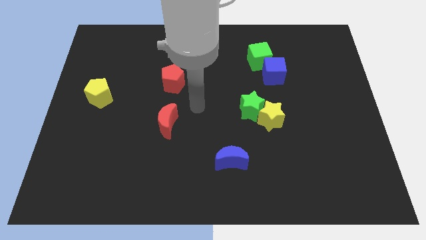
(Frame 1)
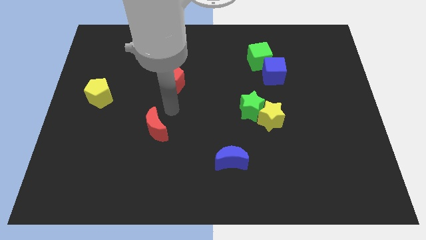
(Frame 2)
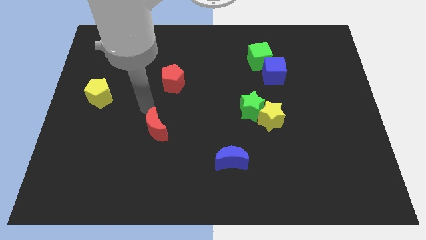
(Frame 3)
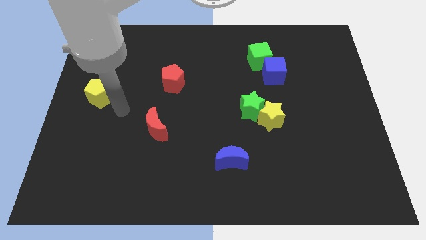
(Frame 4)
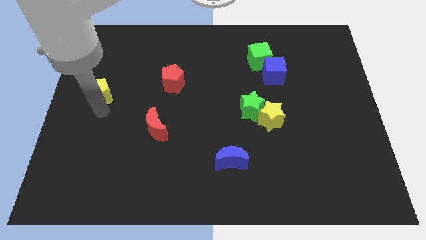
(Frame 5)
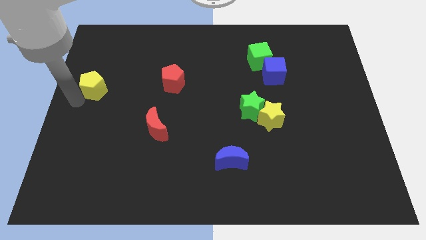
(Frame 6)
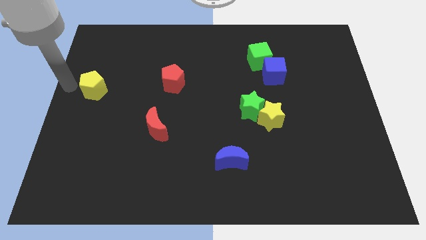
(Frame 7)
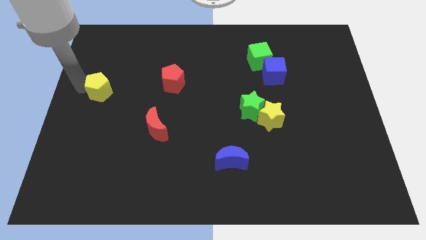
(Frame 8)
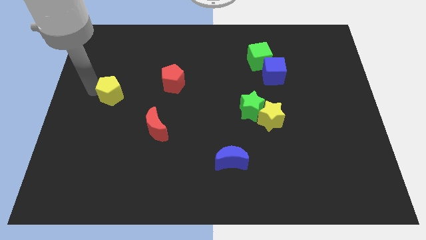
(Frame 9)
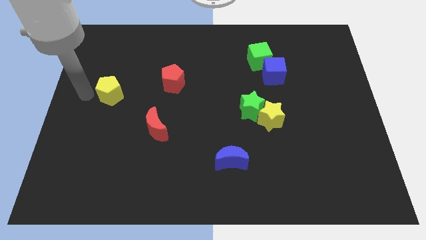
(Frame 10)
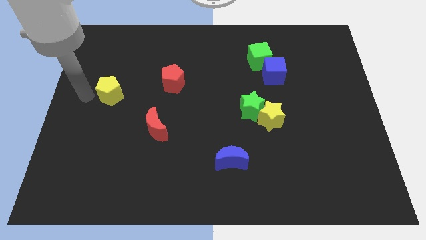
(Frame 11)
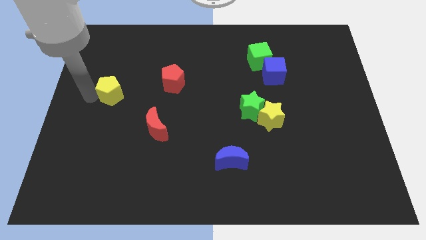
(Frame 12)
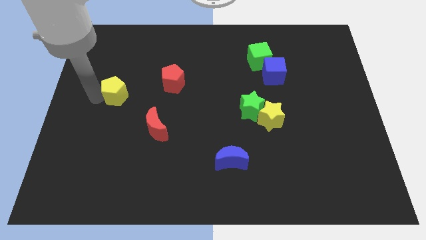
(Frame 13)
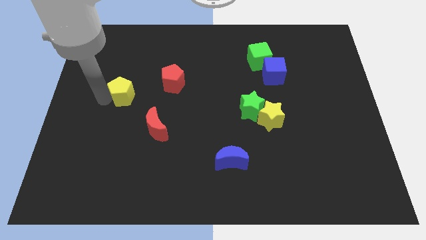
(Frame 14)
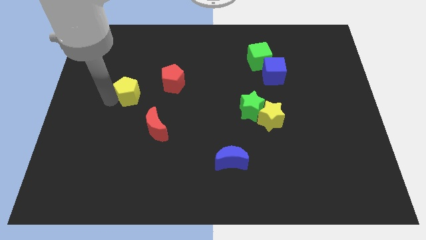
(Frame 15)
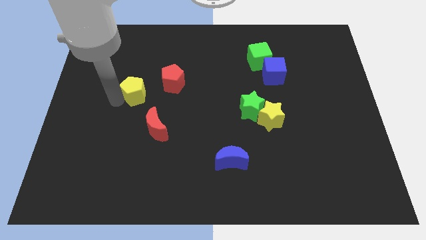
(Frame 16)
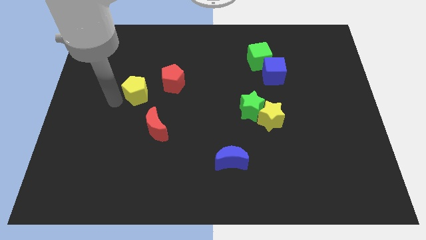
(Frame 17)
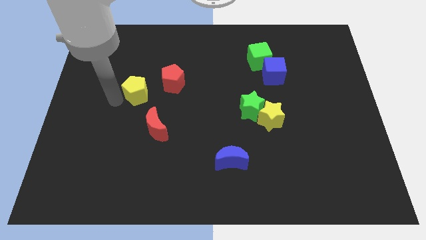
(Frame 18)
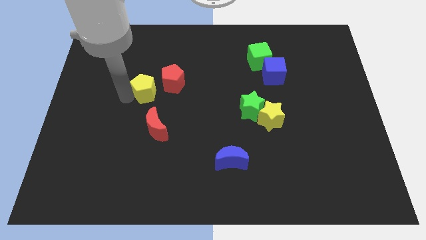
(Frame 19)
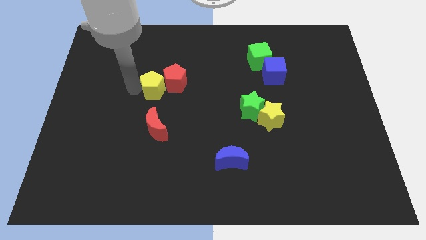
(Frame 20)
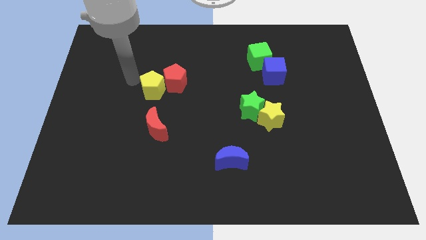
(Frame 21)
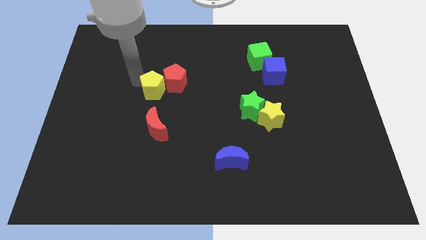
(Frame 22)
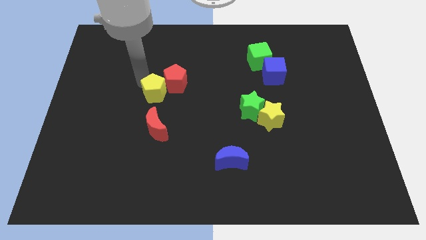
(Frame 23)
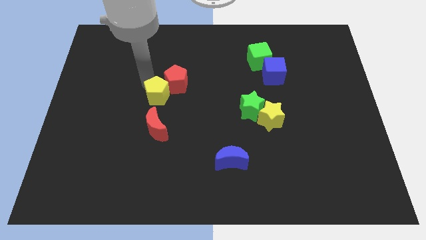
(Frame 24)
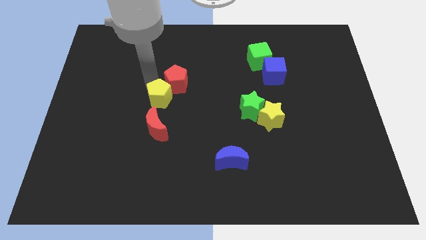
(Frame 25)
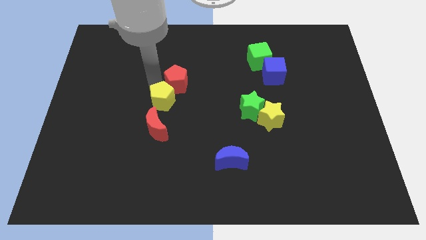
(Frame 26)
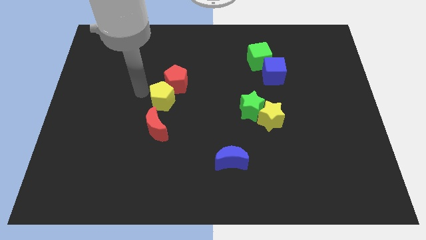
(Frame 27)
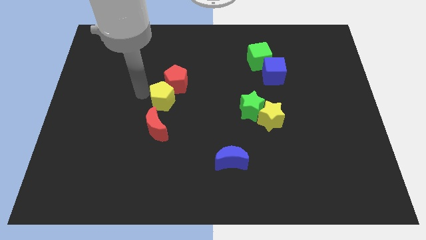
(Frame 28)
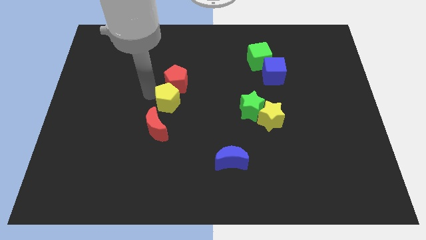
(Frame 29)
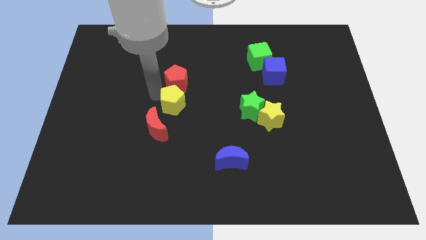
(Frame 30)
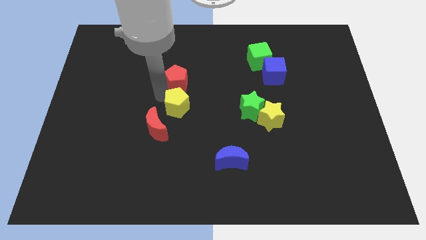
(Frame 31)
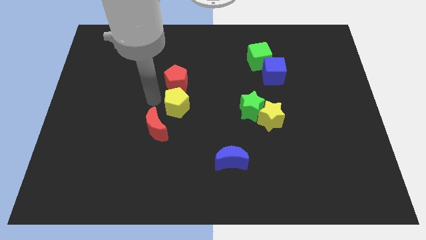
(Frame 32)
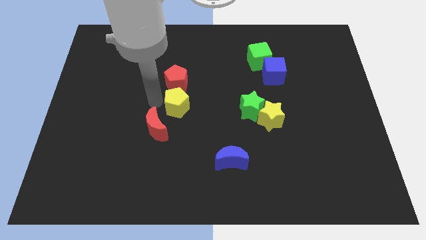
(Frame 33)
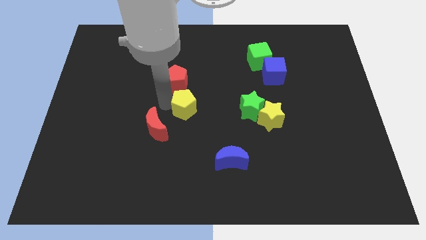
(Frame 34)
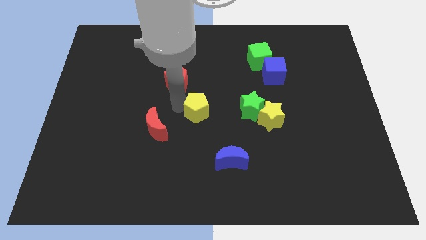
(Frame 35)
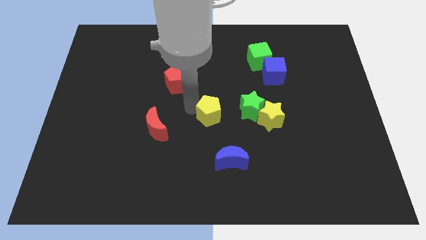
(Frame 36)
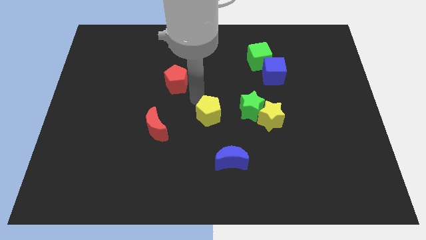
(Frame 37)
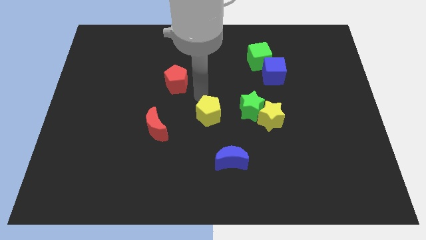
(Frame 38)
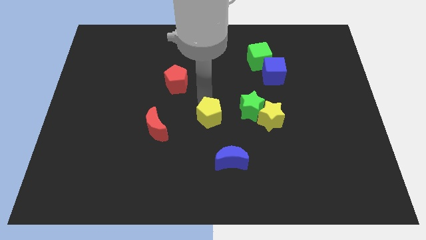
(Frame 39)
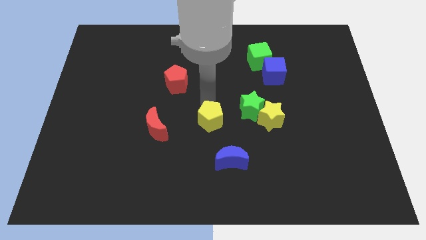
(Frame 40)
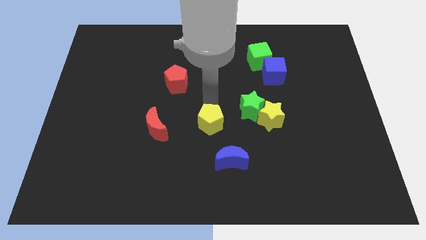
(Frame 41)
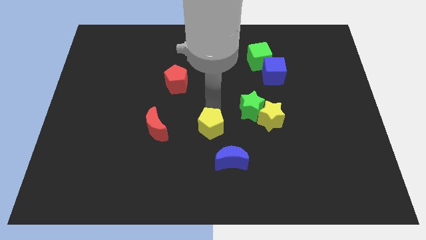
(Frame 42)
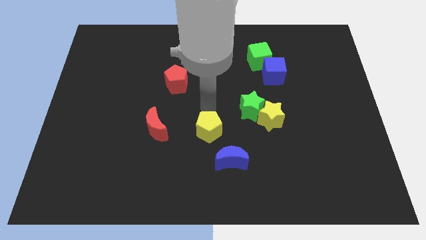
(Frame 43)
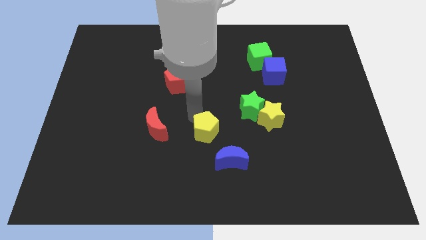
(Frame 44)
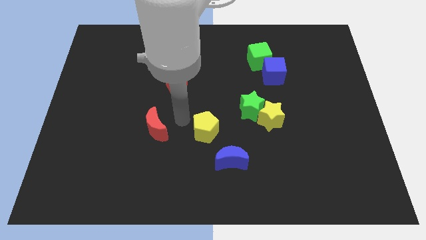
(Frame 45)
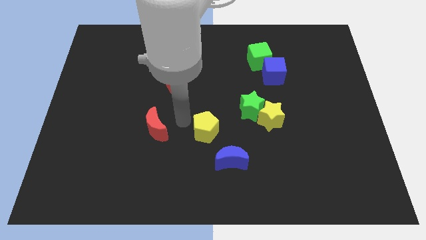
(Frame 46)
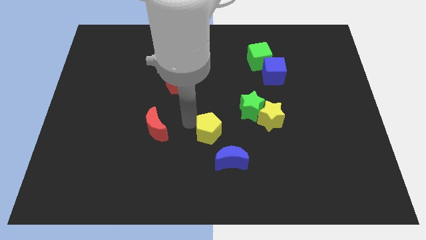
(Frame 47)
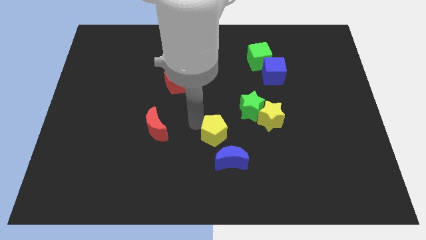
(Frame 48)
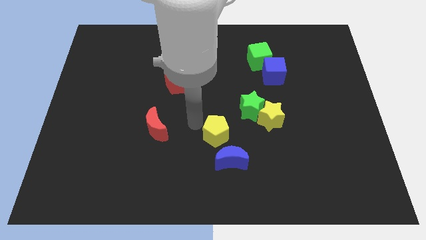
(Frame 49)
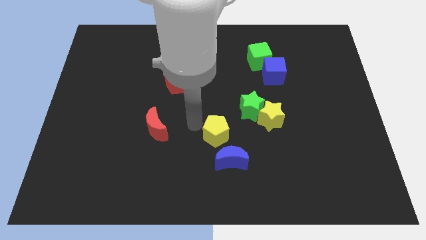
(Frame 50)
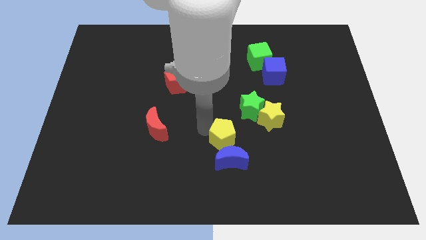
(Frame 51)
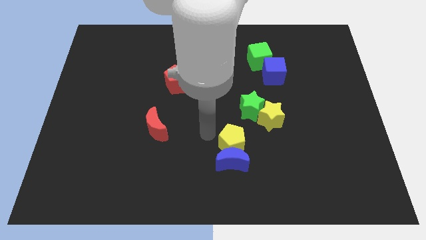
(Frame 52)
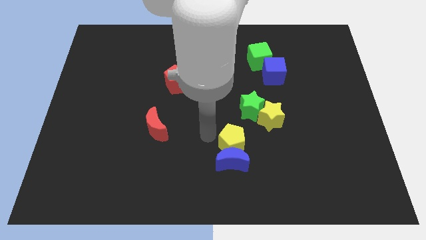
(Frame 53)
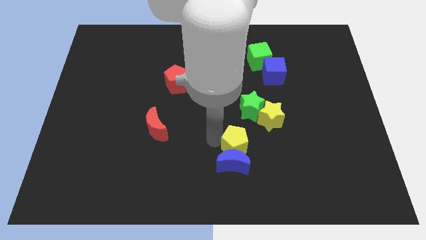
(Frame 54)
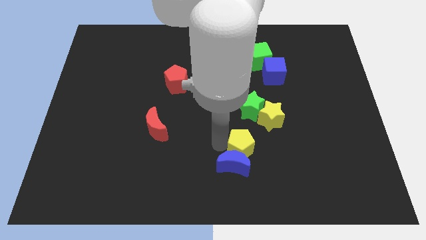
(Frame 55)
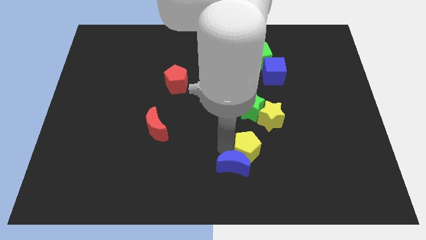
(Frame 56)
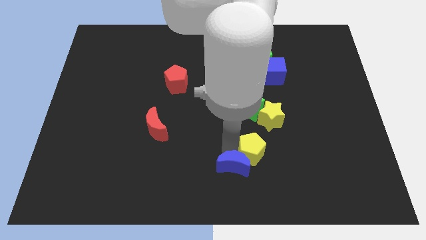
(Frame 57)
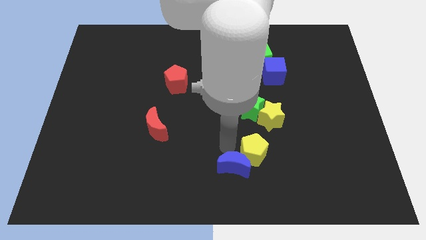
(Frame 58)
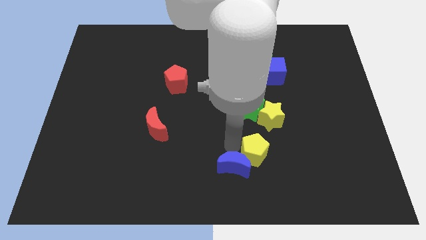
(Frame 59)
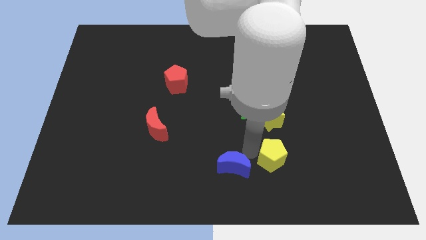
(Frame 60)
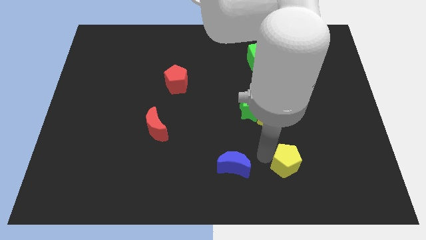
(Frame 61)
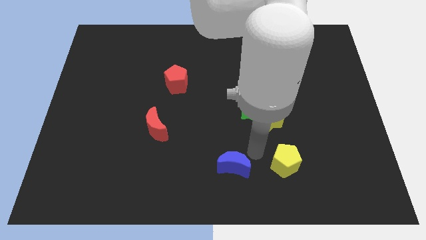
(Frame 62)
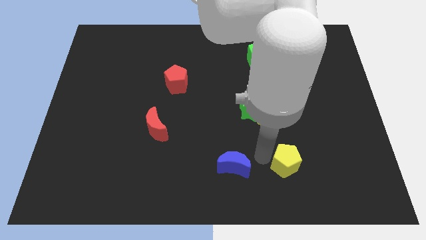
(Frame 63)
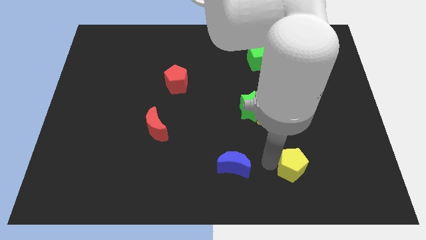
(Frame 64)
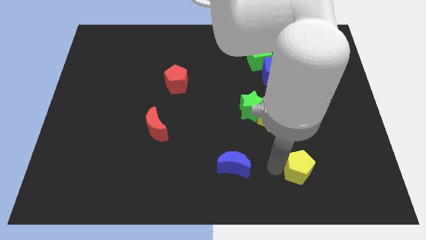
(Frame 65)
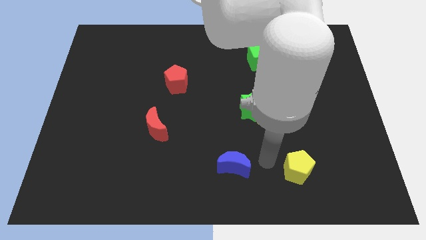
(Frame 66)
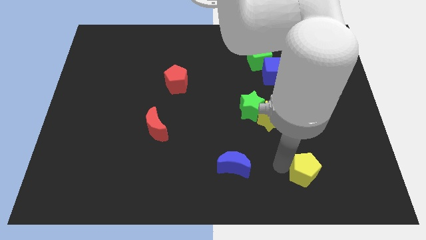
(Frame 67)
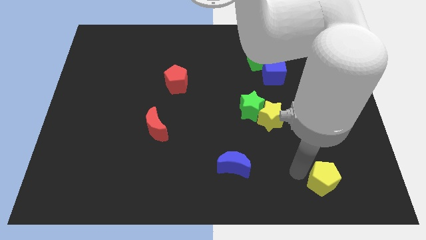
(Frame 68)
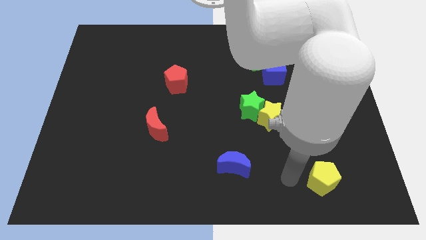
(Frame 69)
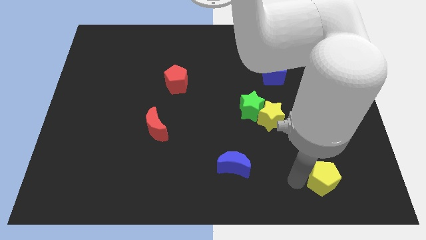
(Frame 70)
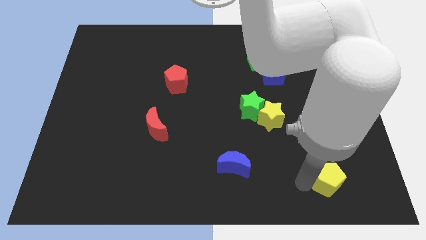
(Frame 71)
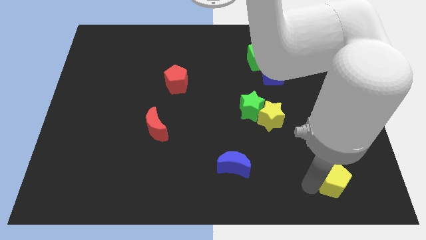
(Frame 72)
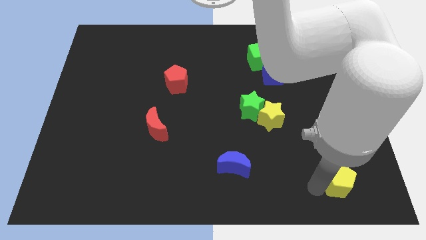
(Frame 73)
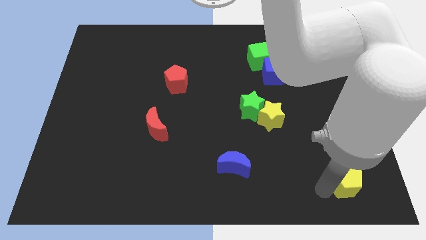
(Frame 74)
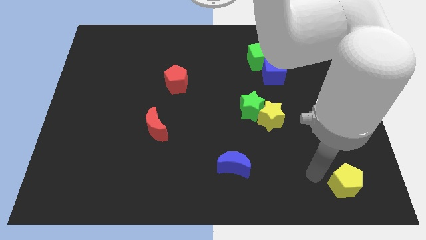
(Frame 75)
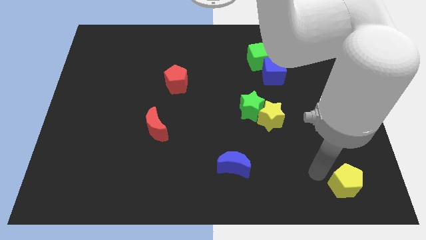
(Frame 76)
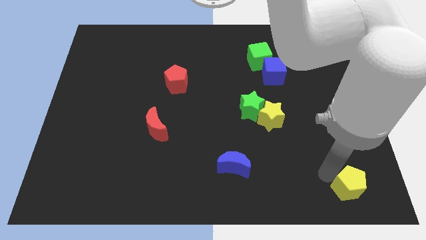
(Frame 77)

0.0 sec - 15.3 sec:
put the yellow pentagon to the bottom right corner
